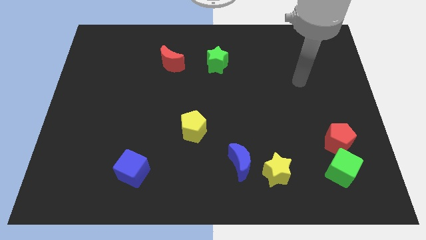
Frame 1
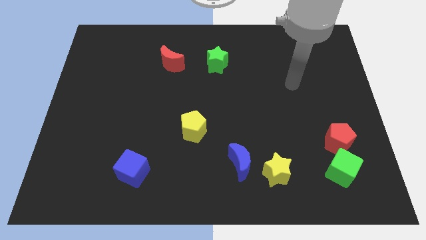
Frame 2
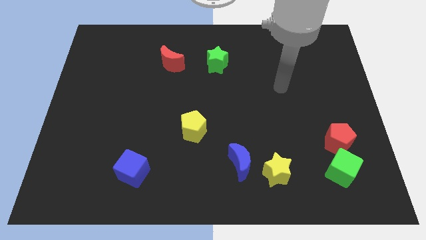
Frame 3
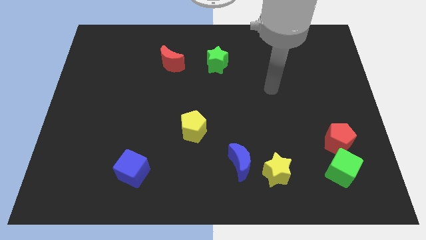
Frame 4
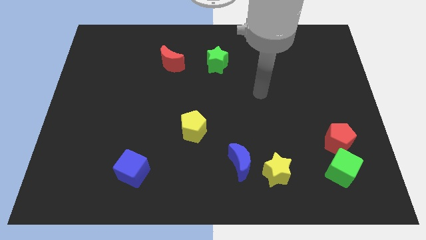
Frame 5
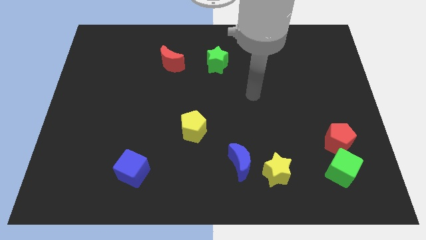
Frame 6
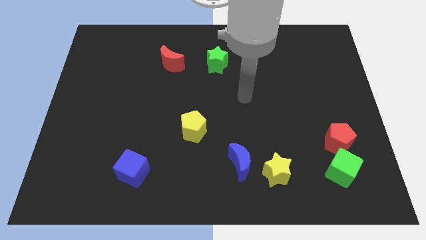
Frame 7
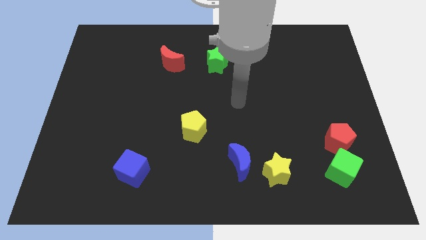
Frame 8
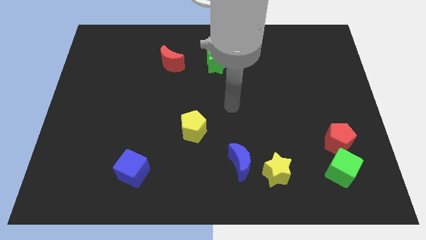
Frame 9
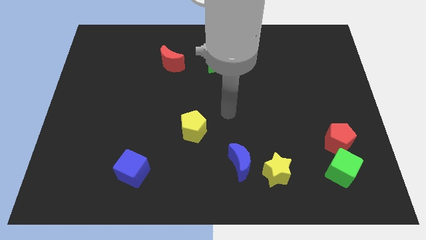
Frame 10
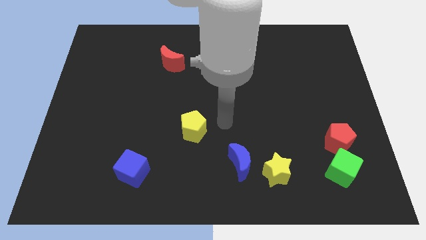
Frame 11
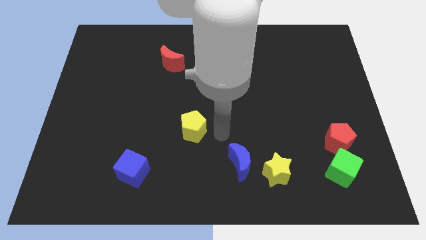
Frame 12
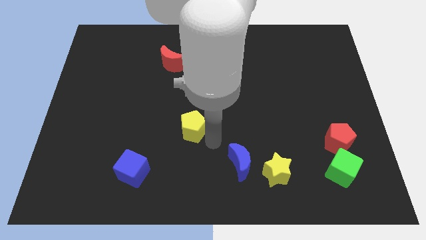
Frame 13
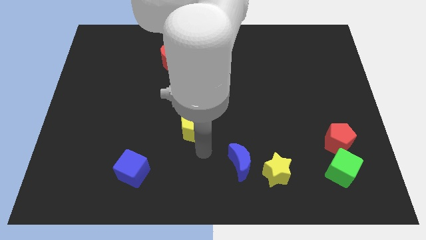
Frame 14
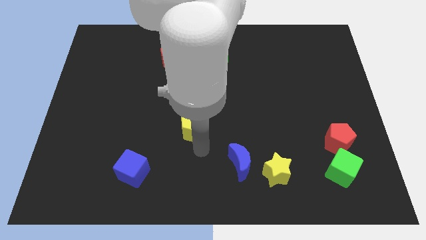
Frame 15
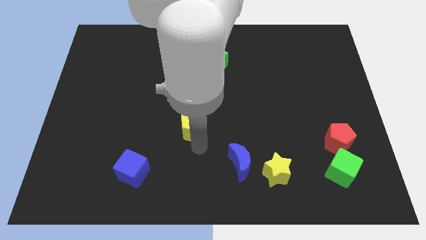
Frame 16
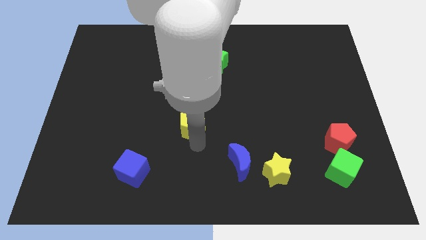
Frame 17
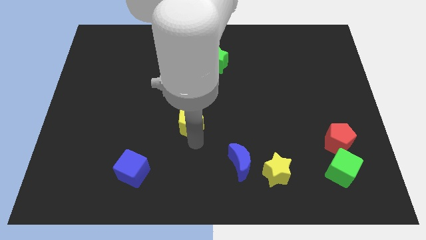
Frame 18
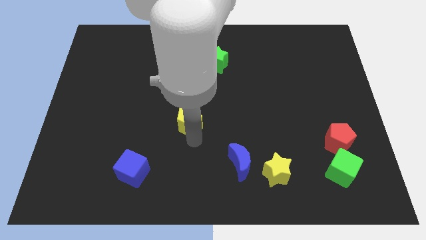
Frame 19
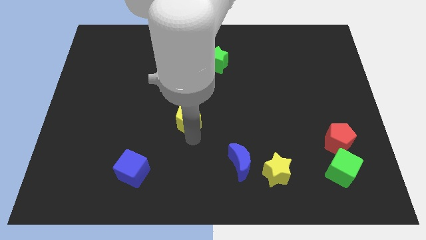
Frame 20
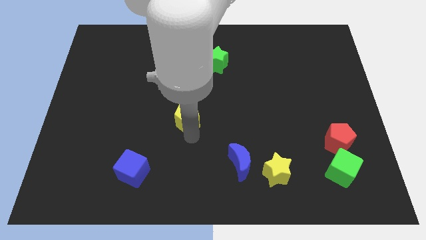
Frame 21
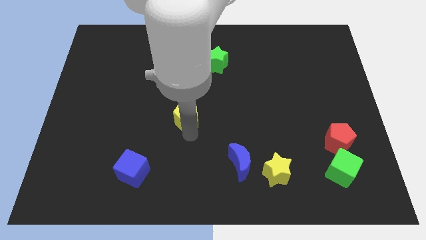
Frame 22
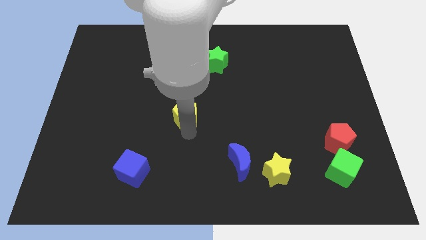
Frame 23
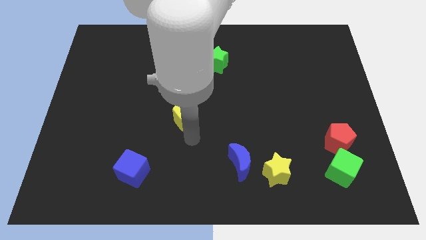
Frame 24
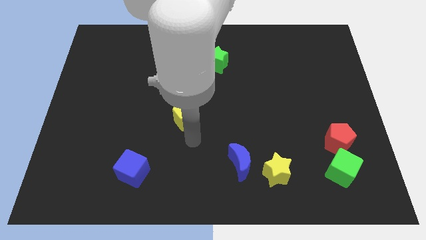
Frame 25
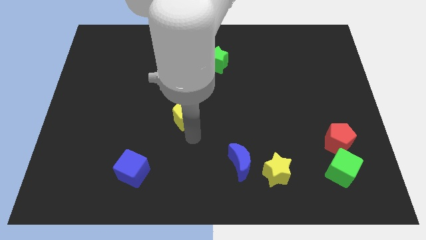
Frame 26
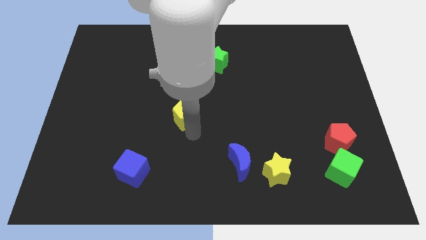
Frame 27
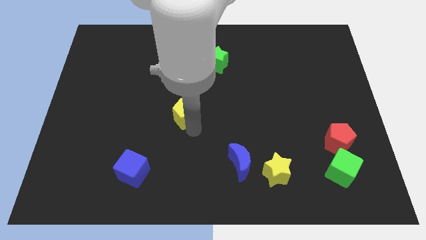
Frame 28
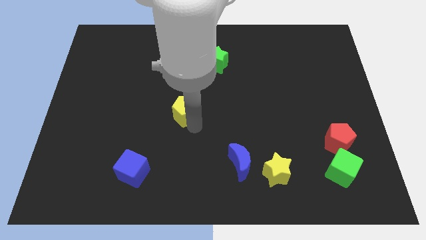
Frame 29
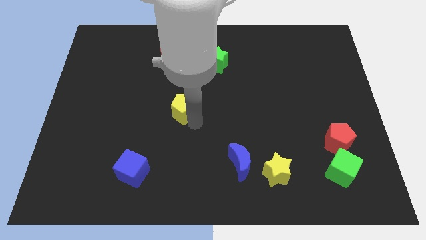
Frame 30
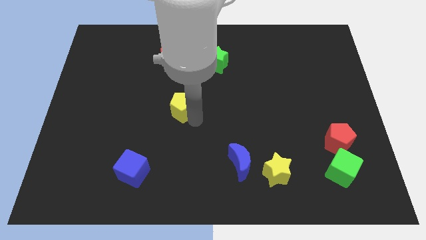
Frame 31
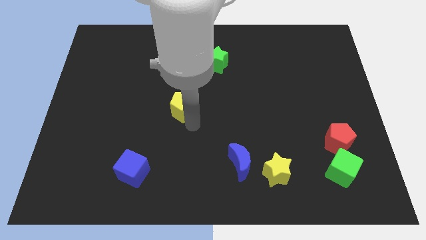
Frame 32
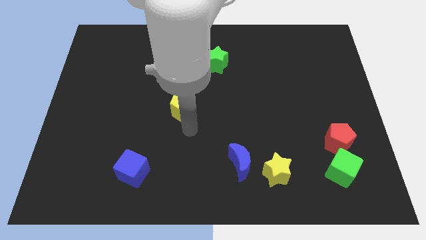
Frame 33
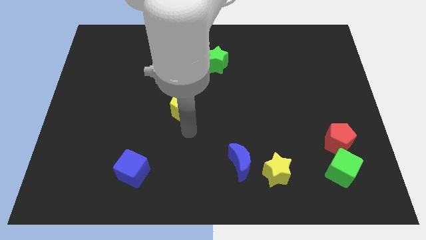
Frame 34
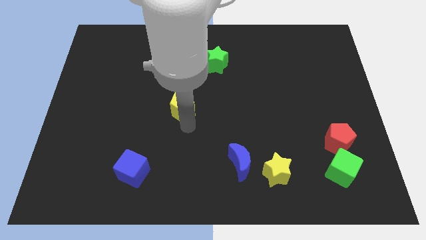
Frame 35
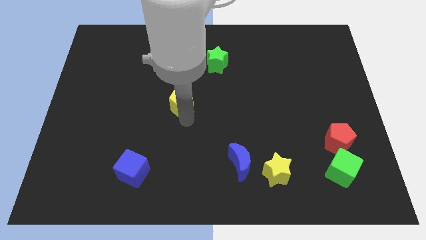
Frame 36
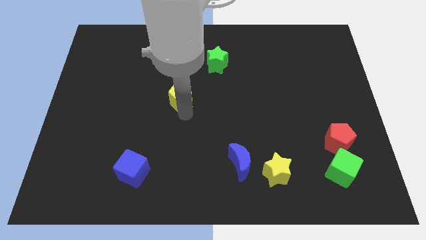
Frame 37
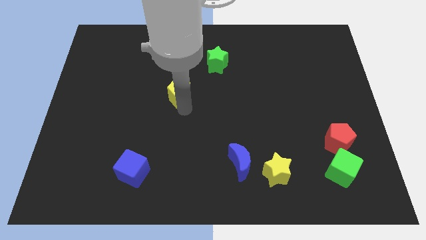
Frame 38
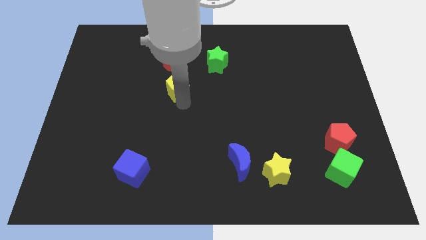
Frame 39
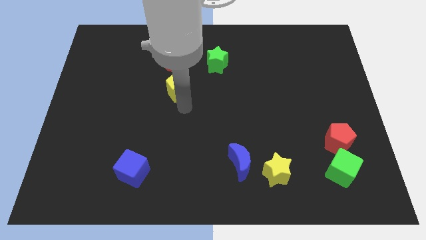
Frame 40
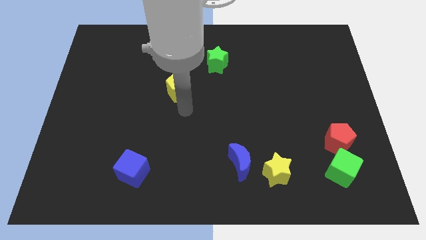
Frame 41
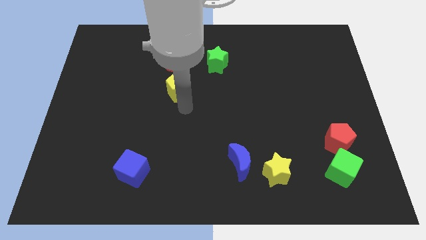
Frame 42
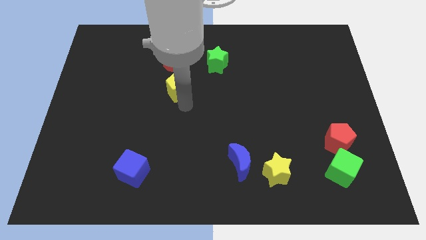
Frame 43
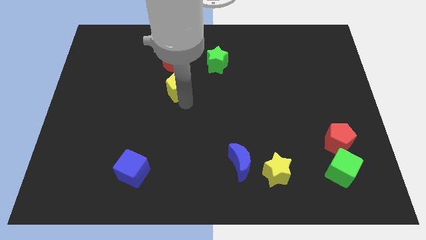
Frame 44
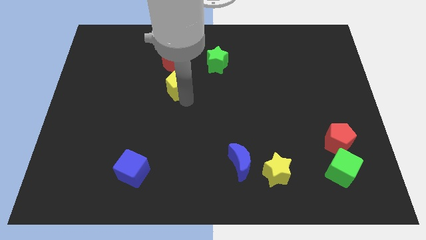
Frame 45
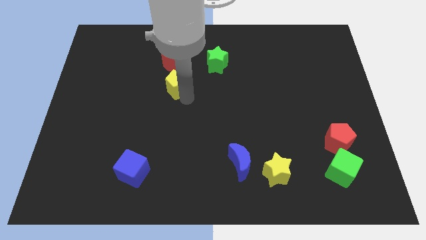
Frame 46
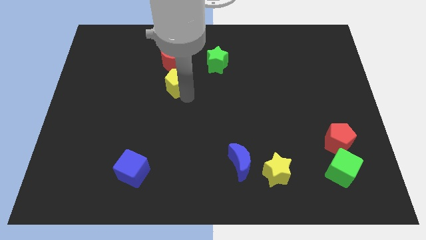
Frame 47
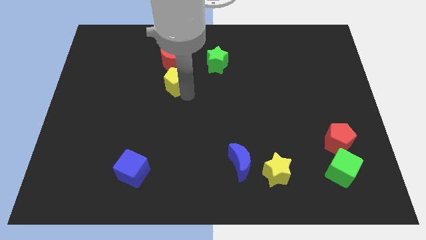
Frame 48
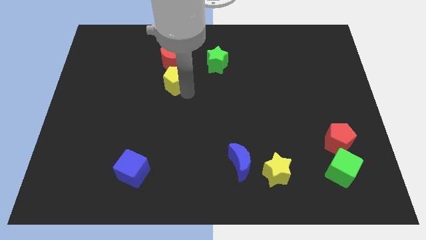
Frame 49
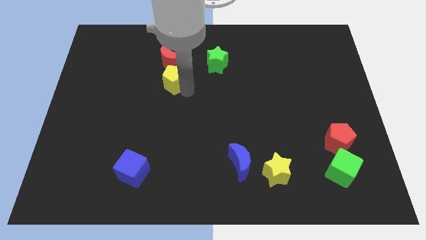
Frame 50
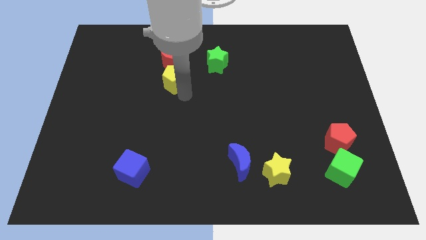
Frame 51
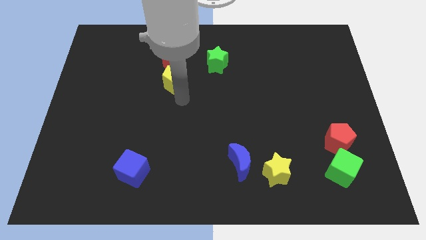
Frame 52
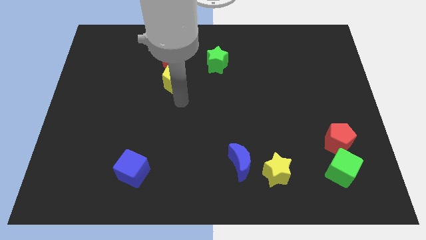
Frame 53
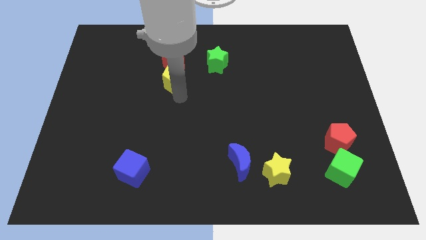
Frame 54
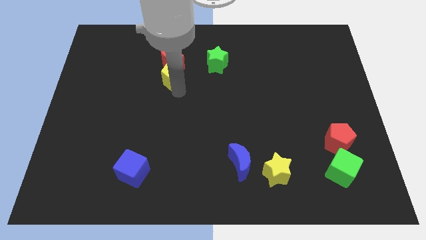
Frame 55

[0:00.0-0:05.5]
push the yellow pentagon close to the red moon

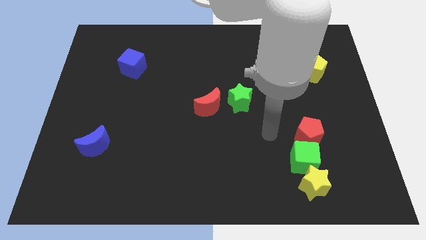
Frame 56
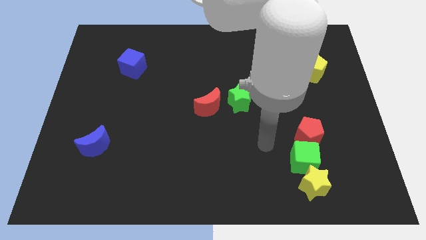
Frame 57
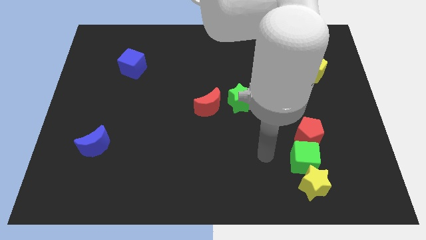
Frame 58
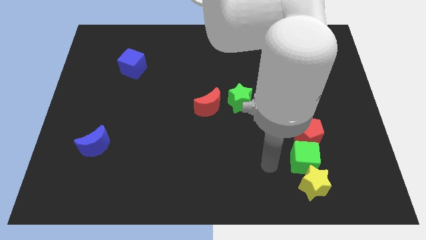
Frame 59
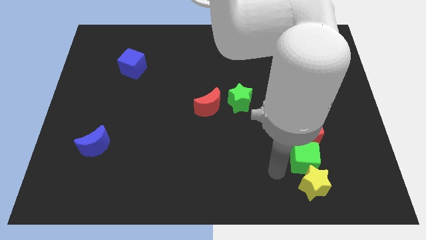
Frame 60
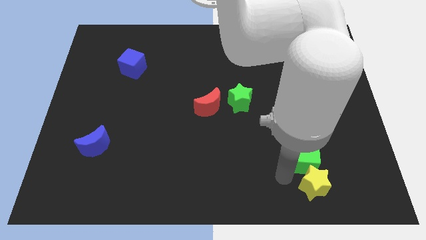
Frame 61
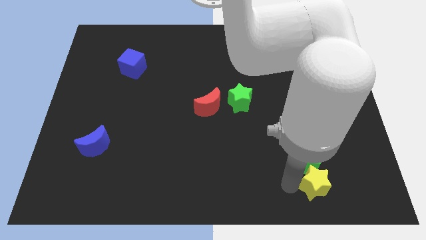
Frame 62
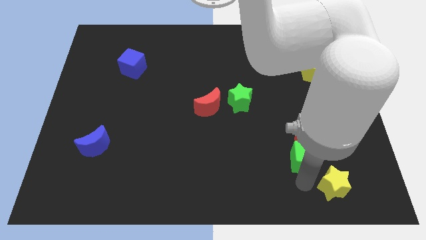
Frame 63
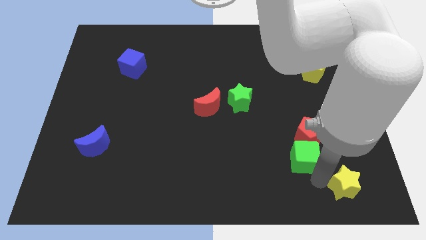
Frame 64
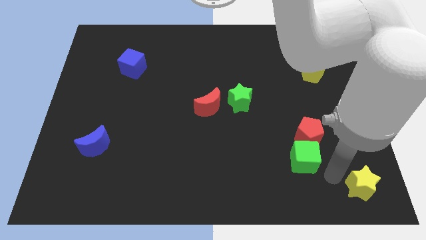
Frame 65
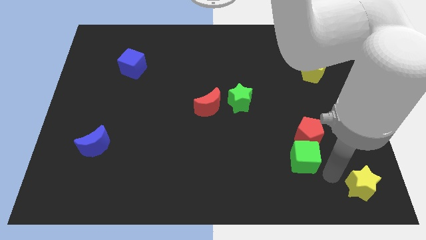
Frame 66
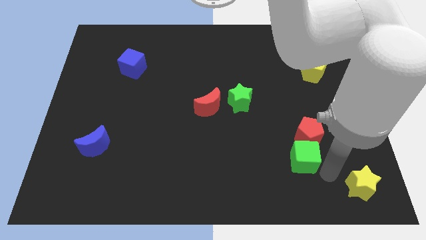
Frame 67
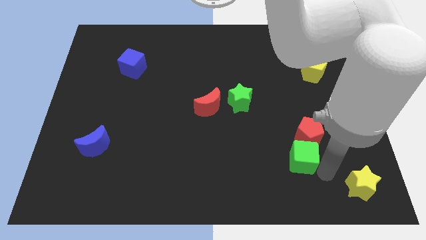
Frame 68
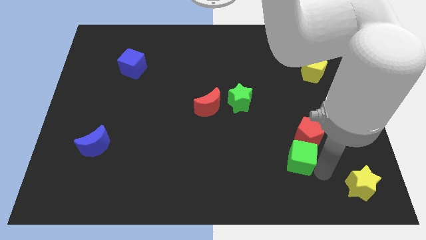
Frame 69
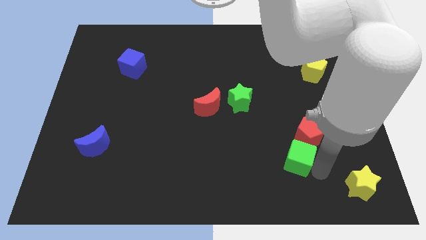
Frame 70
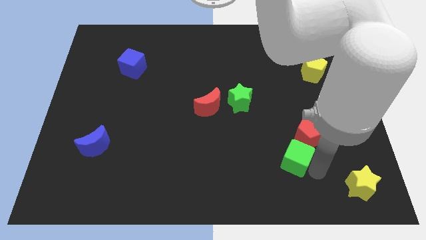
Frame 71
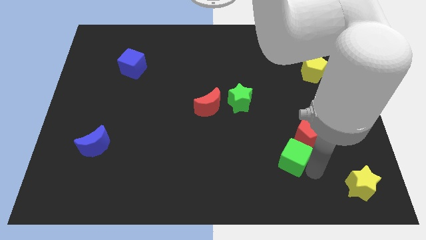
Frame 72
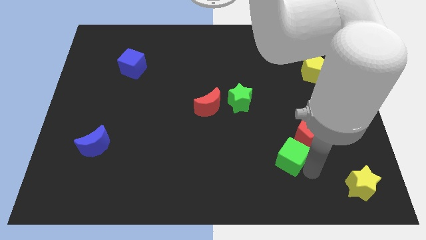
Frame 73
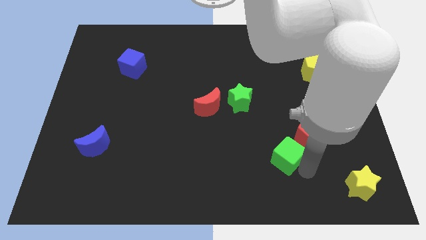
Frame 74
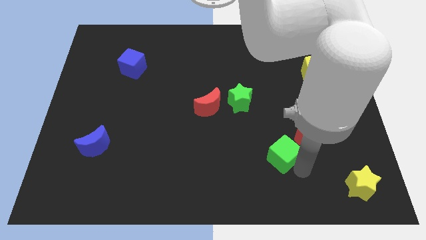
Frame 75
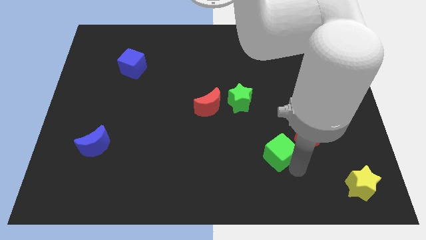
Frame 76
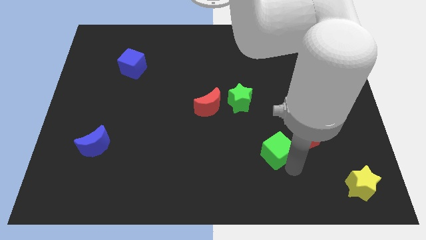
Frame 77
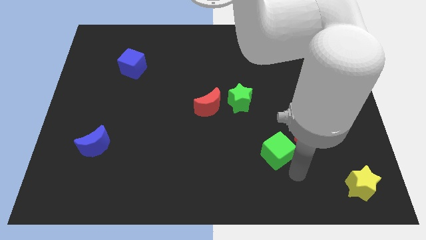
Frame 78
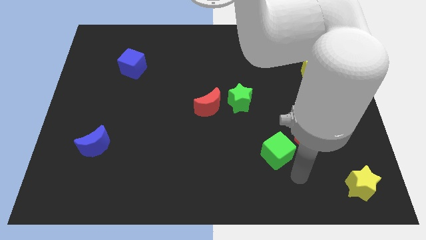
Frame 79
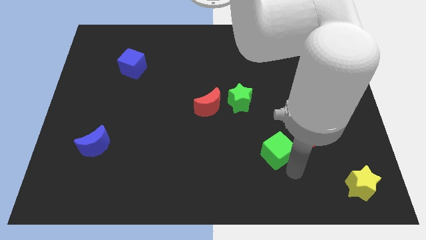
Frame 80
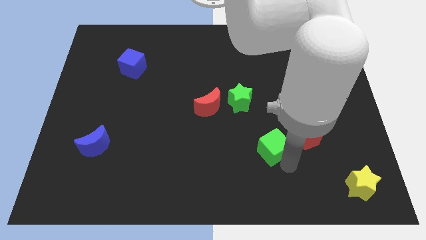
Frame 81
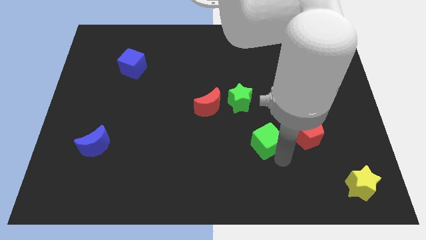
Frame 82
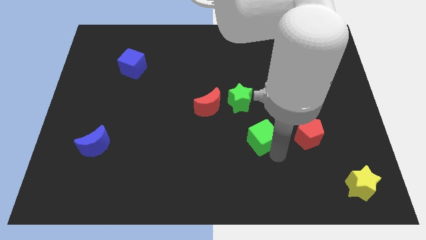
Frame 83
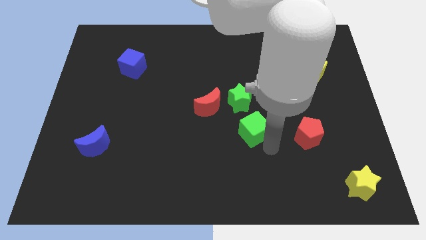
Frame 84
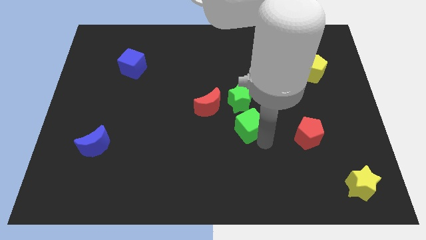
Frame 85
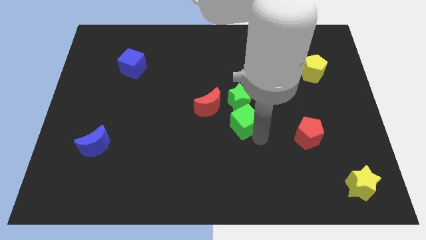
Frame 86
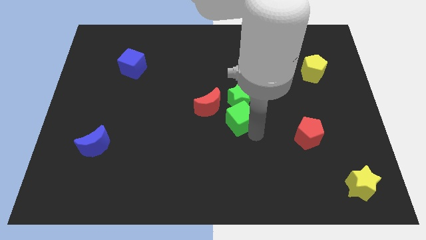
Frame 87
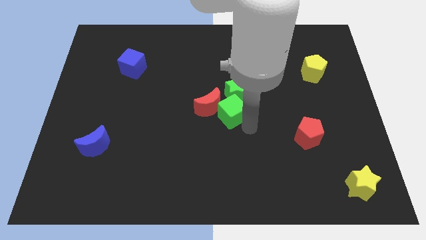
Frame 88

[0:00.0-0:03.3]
put the green cube to the red moon
